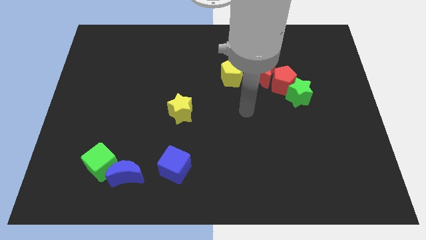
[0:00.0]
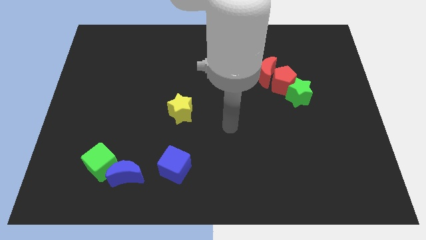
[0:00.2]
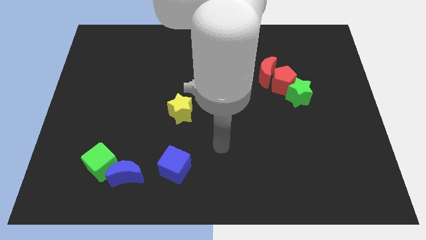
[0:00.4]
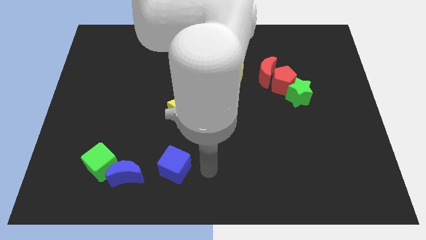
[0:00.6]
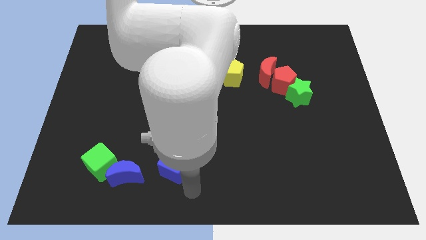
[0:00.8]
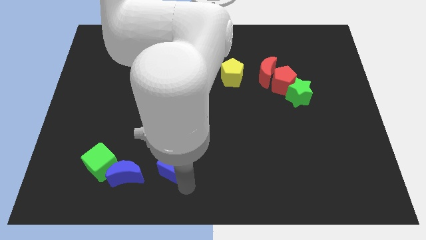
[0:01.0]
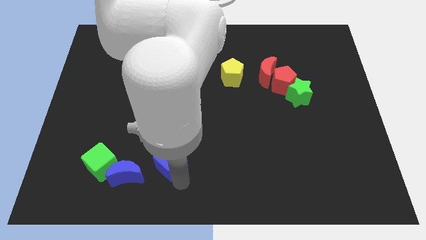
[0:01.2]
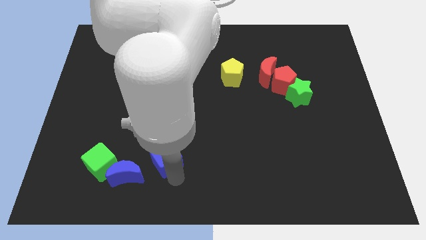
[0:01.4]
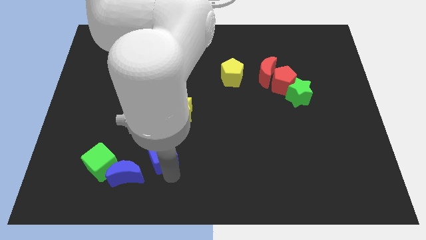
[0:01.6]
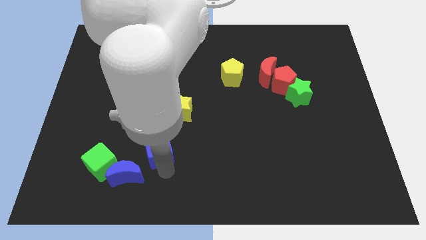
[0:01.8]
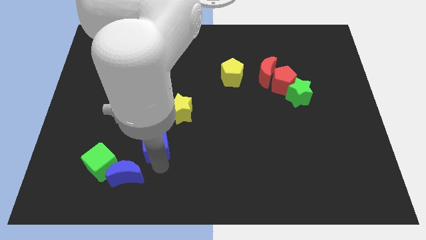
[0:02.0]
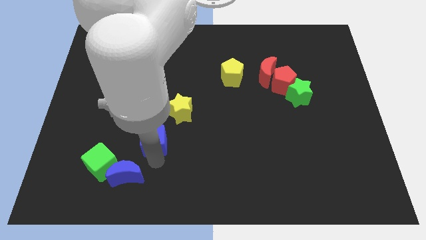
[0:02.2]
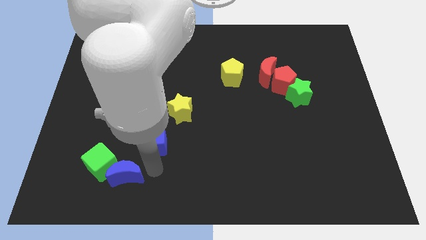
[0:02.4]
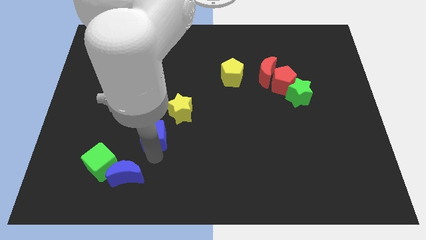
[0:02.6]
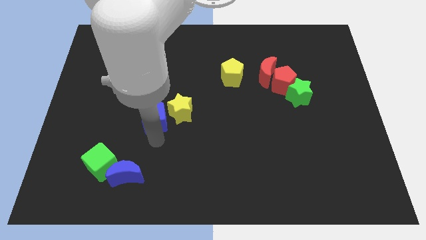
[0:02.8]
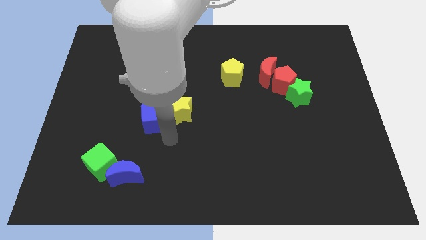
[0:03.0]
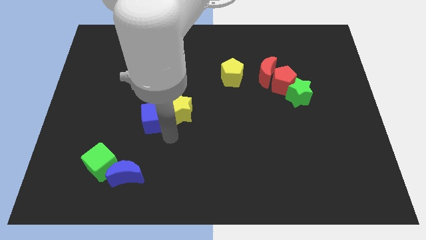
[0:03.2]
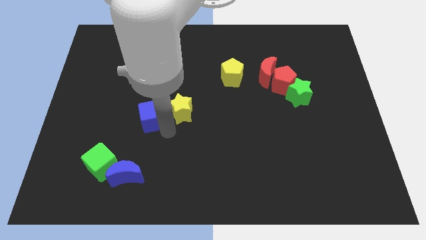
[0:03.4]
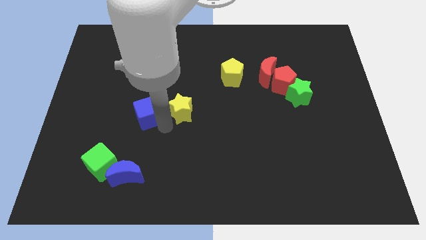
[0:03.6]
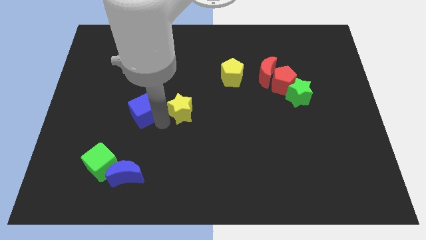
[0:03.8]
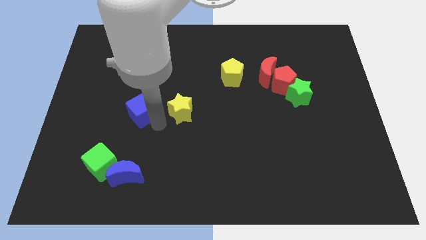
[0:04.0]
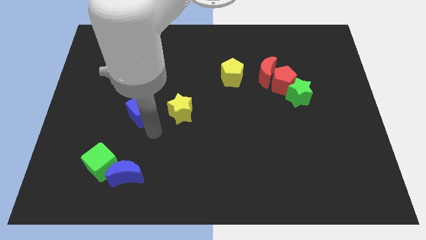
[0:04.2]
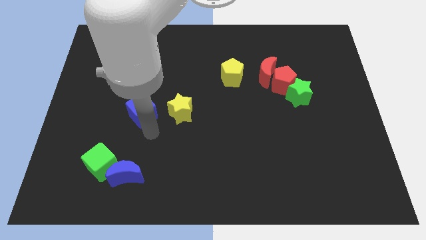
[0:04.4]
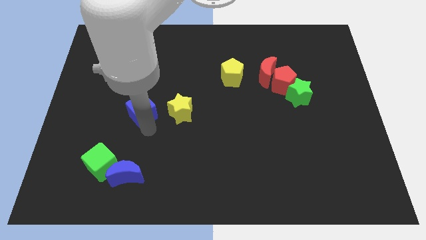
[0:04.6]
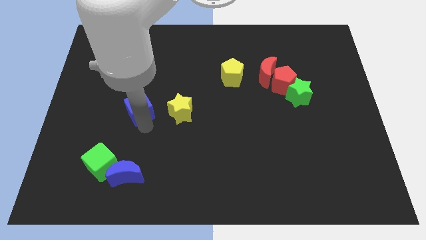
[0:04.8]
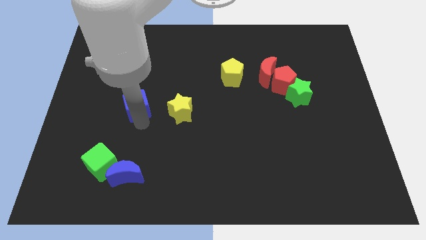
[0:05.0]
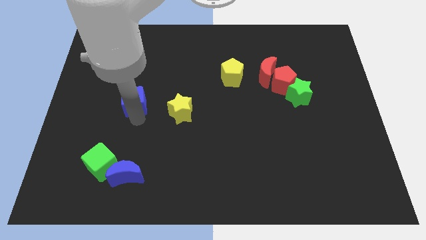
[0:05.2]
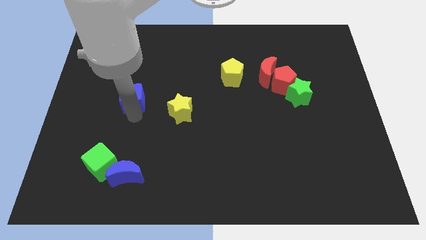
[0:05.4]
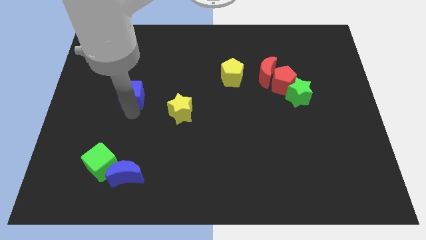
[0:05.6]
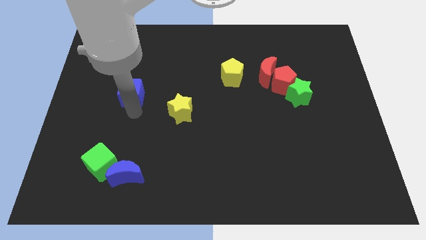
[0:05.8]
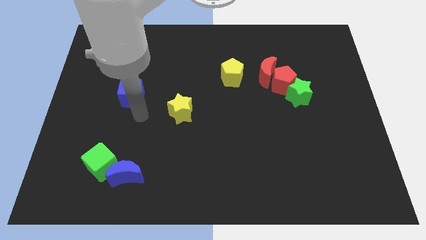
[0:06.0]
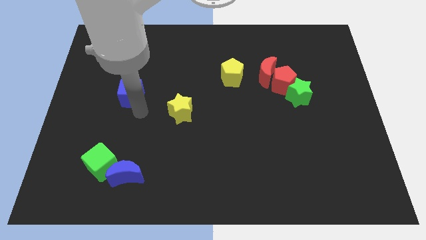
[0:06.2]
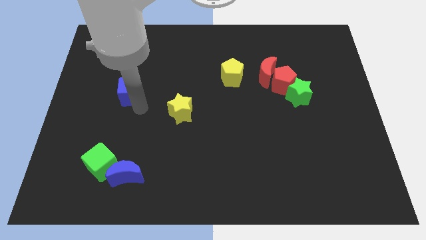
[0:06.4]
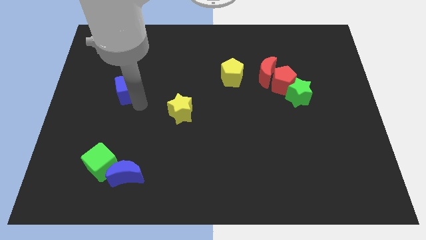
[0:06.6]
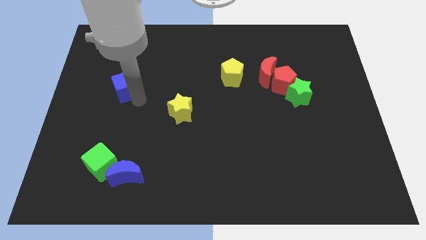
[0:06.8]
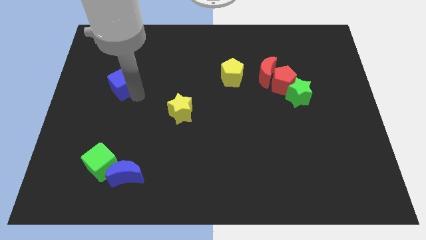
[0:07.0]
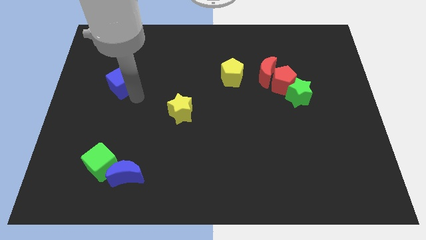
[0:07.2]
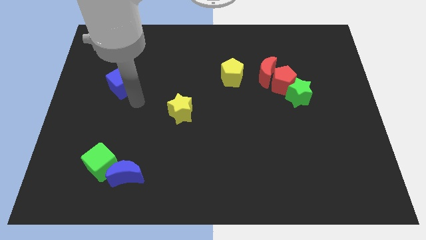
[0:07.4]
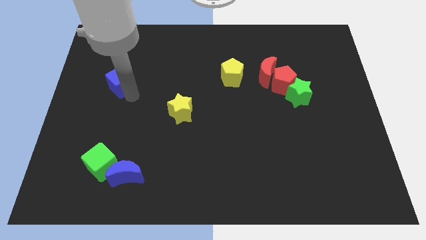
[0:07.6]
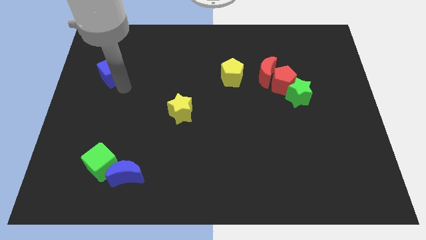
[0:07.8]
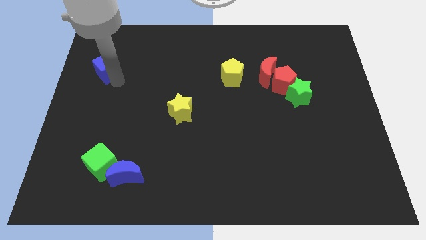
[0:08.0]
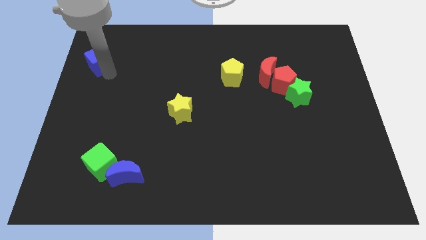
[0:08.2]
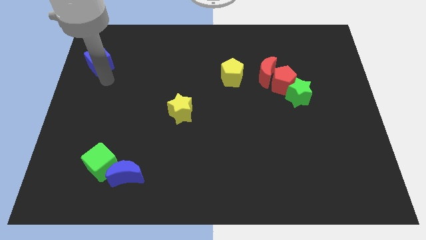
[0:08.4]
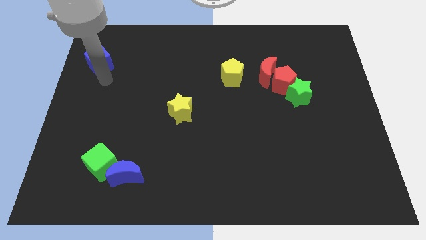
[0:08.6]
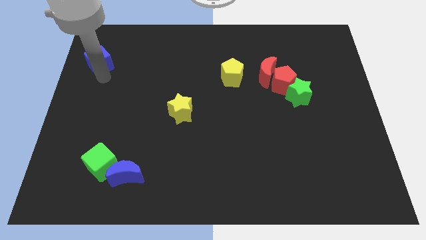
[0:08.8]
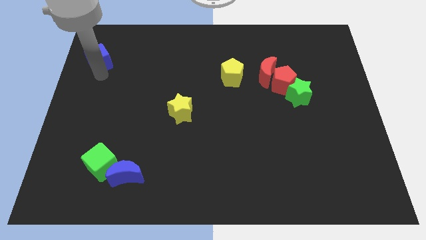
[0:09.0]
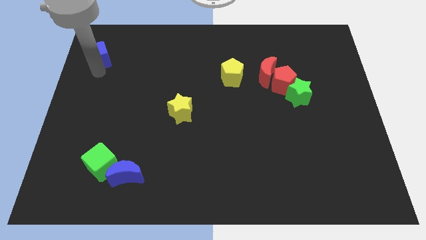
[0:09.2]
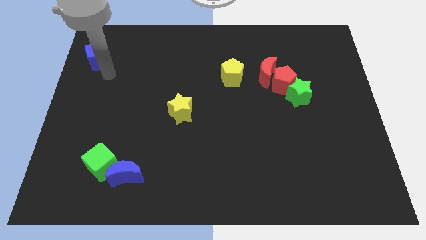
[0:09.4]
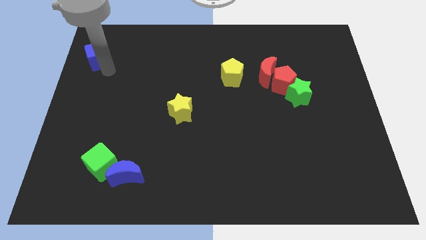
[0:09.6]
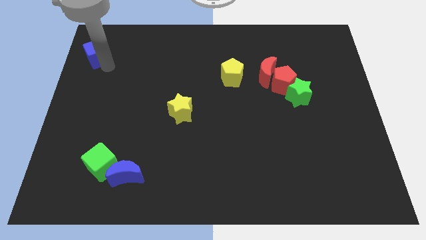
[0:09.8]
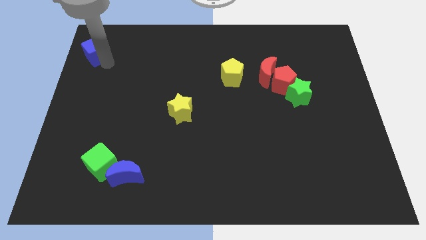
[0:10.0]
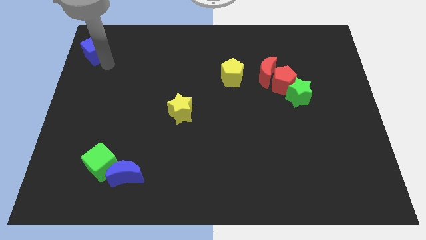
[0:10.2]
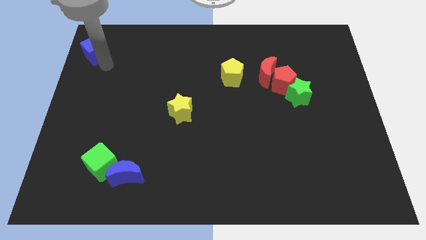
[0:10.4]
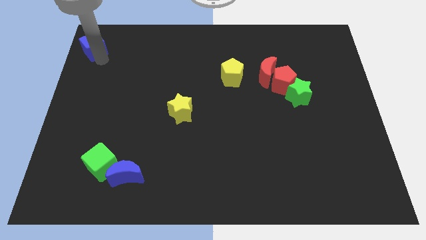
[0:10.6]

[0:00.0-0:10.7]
push the blue cube to the upper left corner

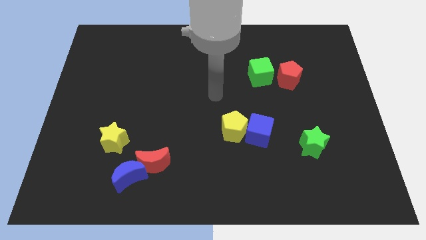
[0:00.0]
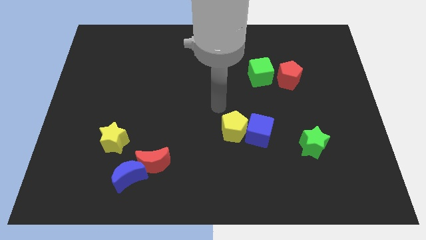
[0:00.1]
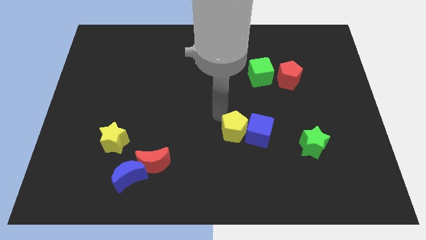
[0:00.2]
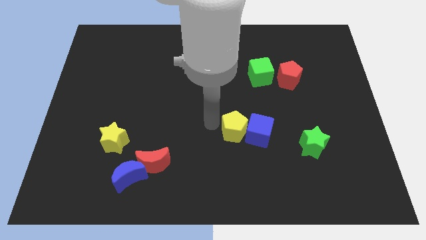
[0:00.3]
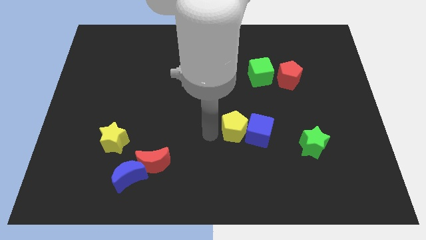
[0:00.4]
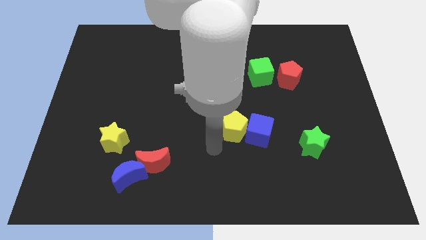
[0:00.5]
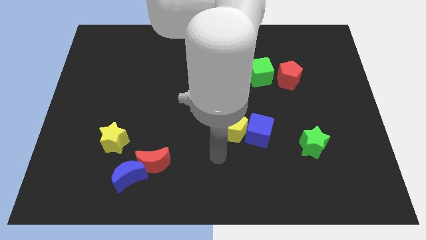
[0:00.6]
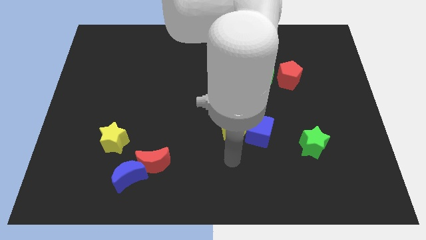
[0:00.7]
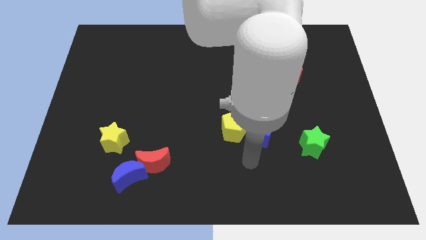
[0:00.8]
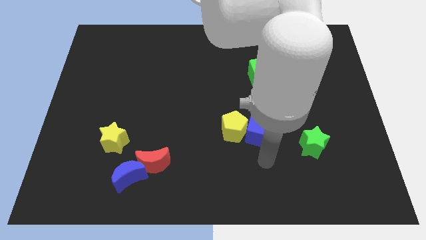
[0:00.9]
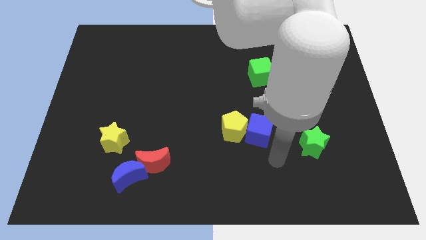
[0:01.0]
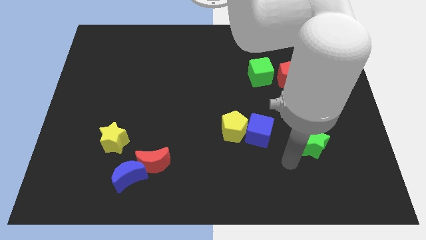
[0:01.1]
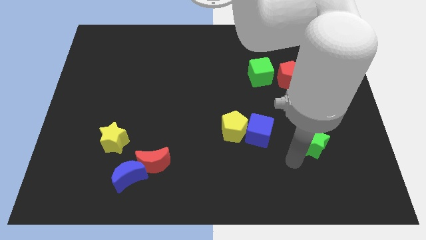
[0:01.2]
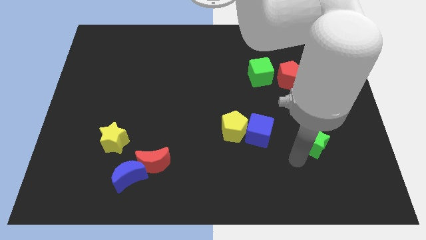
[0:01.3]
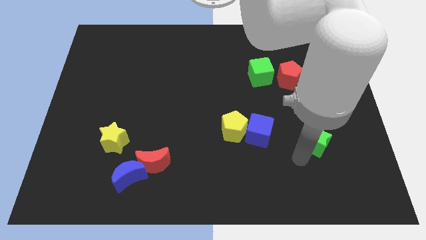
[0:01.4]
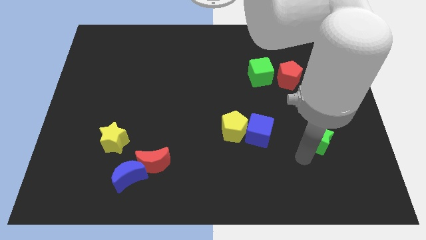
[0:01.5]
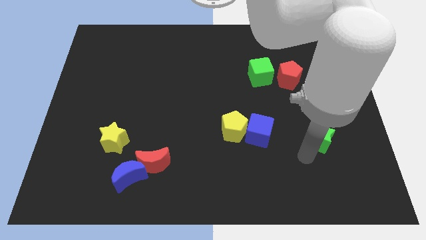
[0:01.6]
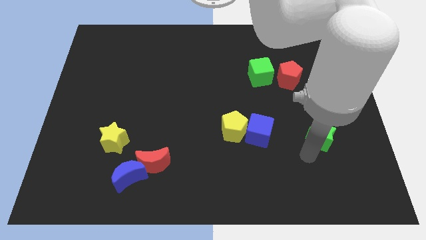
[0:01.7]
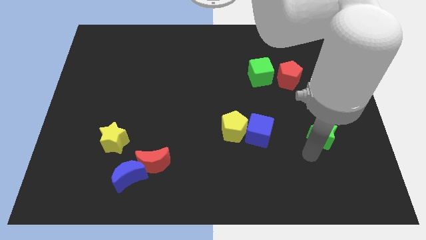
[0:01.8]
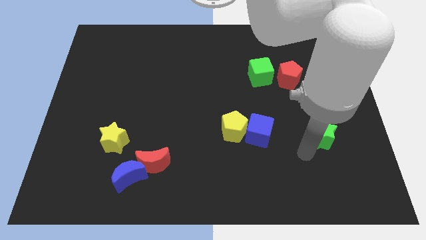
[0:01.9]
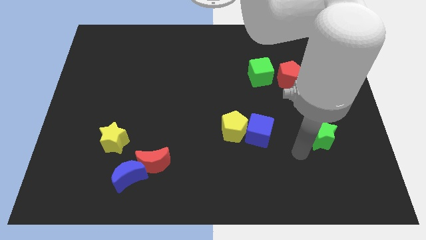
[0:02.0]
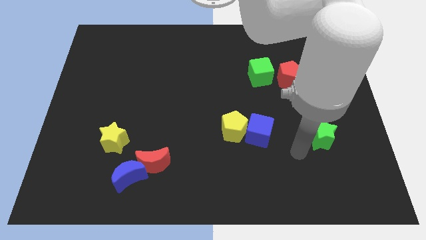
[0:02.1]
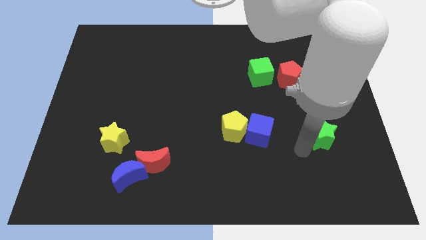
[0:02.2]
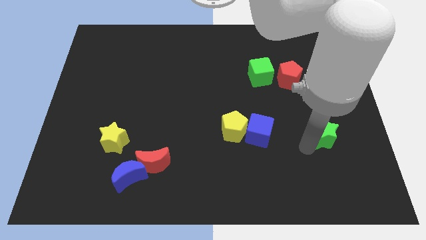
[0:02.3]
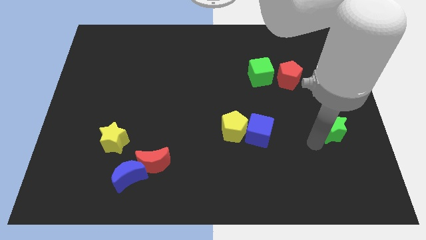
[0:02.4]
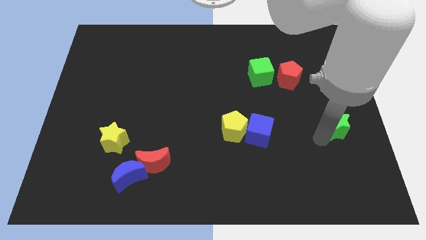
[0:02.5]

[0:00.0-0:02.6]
move the green star to the right side of the board
